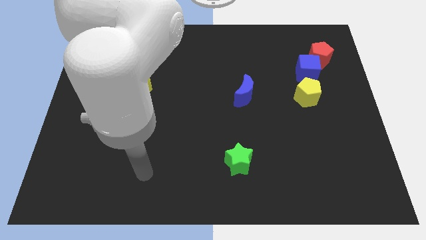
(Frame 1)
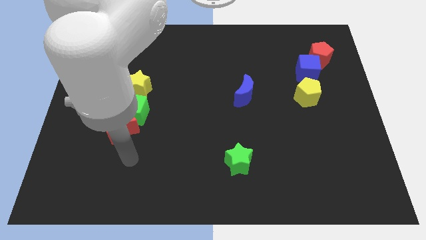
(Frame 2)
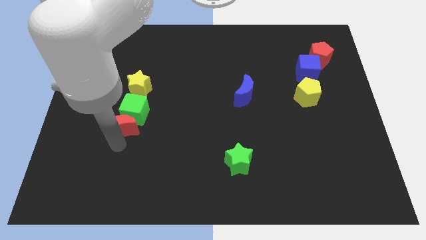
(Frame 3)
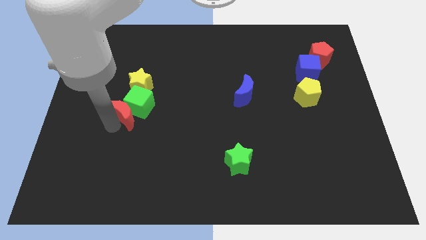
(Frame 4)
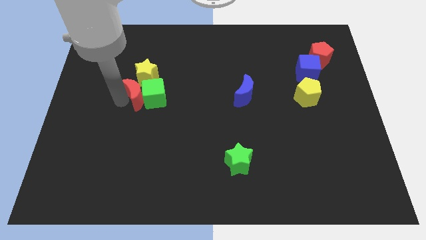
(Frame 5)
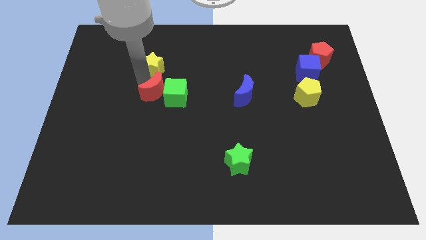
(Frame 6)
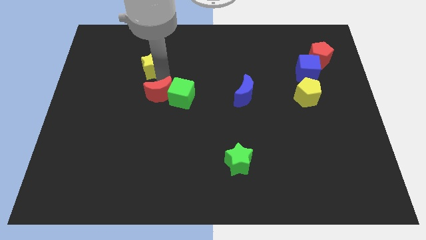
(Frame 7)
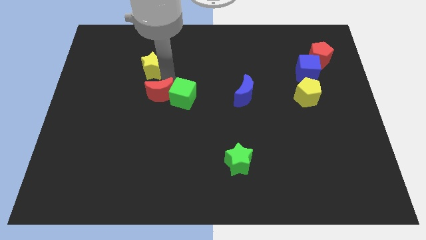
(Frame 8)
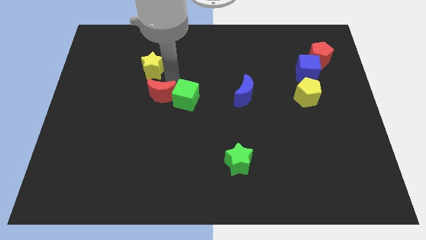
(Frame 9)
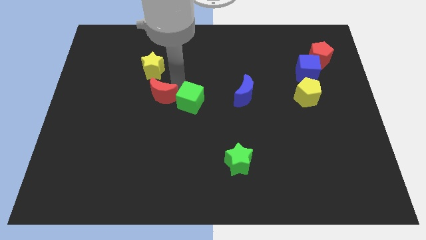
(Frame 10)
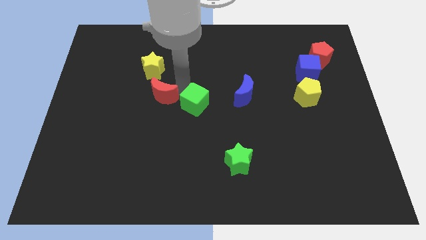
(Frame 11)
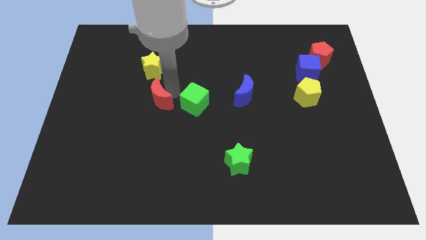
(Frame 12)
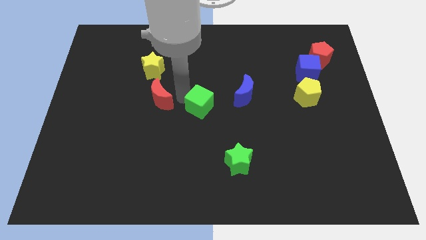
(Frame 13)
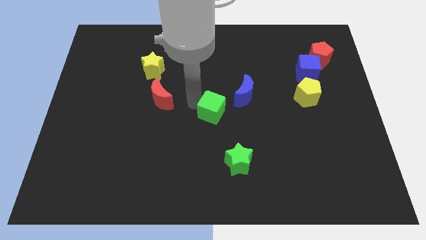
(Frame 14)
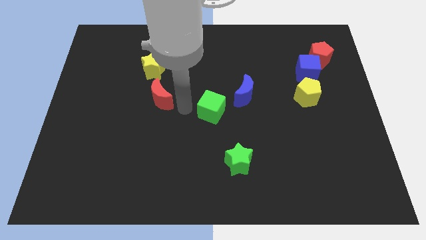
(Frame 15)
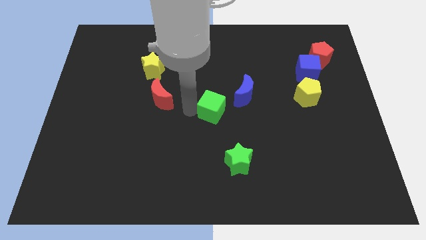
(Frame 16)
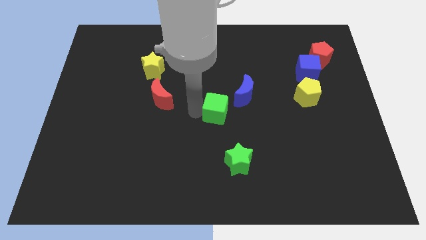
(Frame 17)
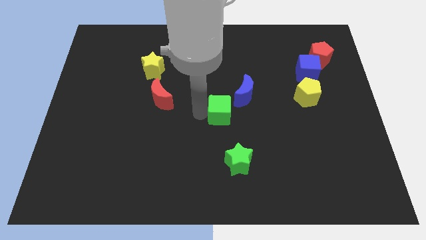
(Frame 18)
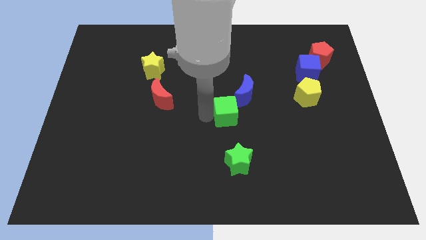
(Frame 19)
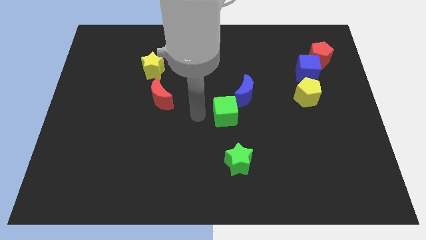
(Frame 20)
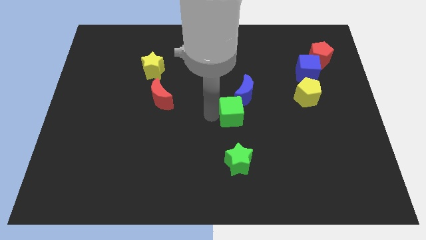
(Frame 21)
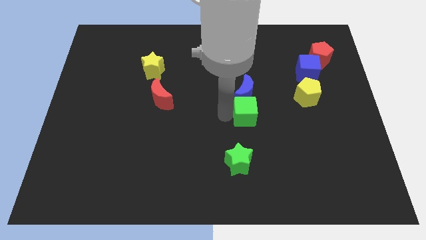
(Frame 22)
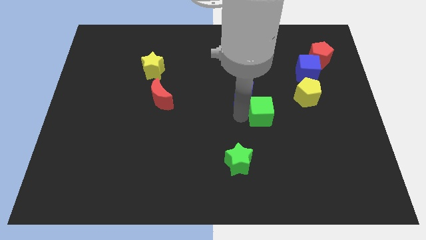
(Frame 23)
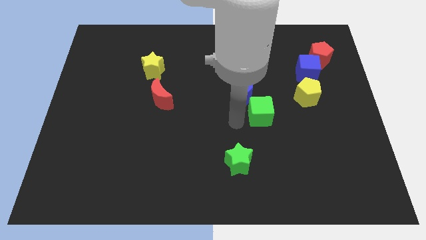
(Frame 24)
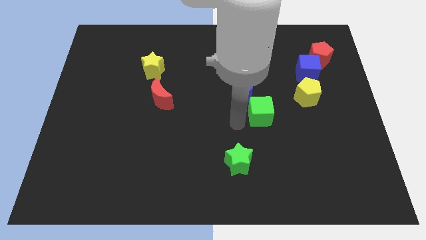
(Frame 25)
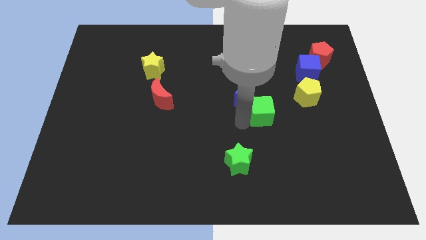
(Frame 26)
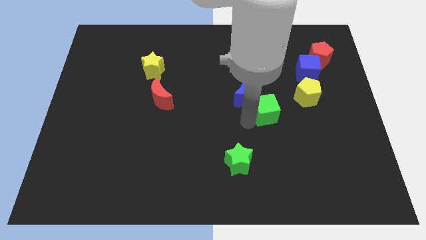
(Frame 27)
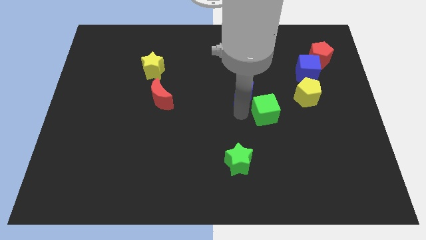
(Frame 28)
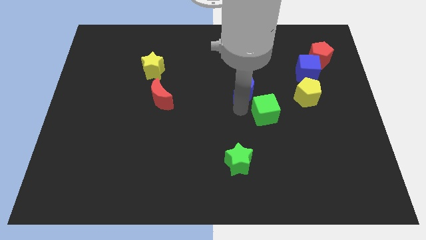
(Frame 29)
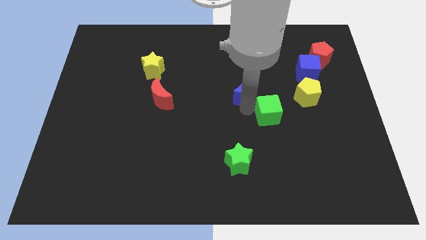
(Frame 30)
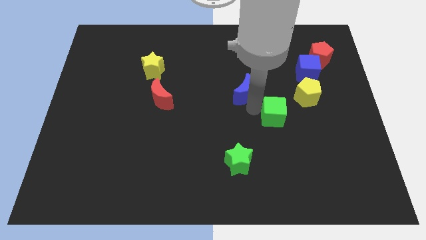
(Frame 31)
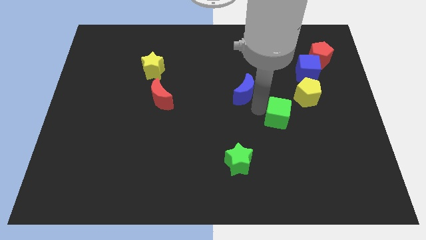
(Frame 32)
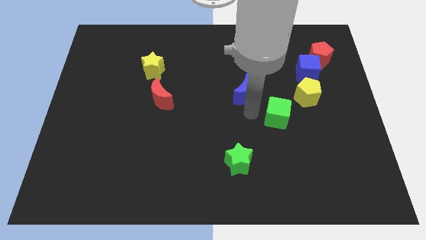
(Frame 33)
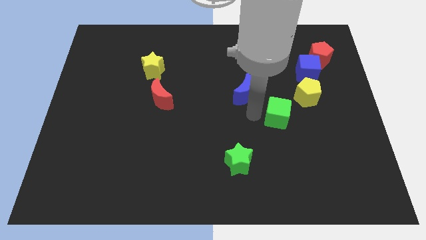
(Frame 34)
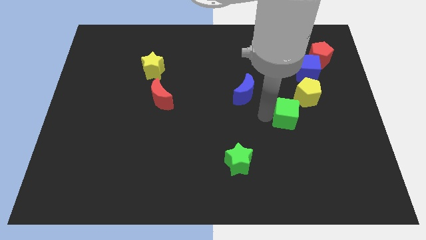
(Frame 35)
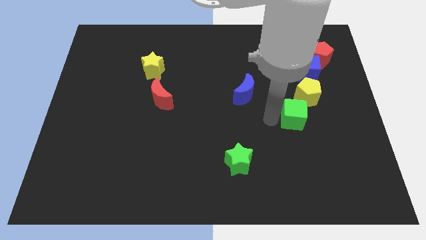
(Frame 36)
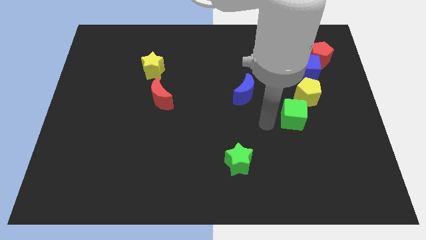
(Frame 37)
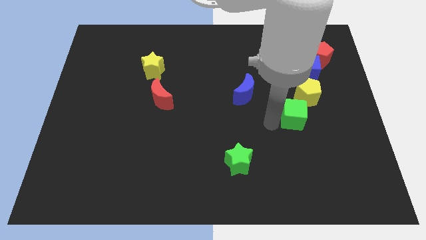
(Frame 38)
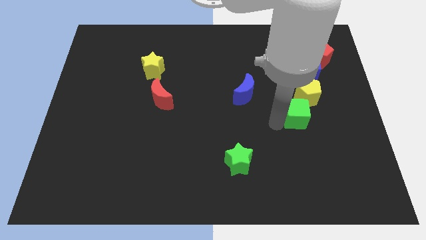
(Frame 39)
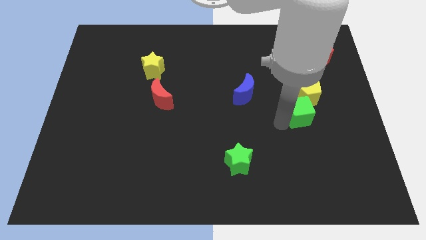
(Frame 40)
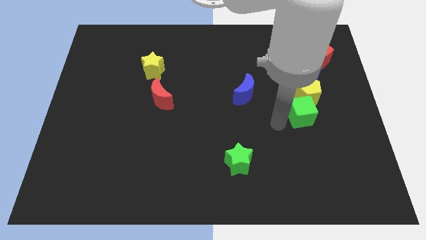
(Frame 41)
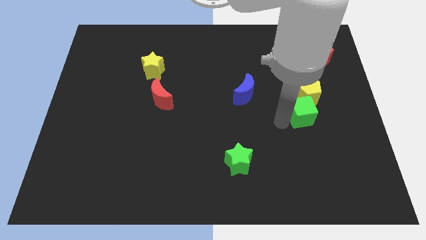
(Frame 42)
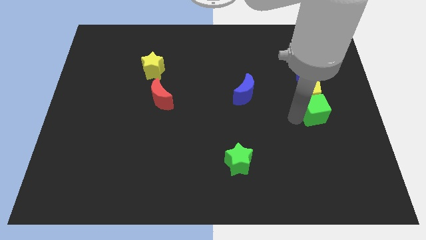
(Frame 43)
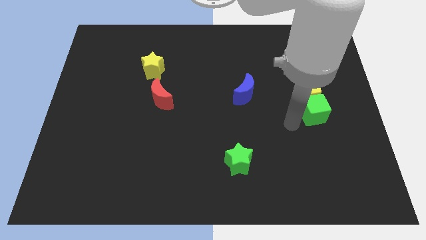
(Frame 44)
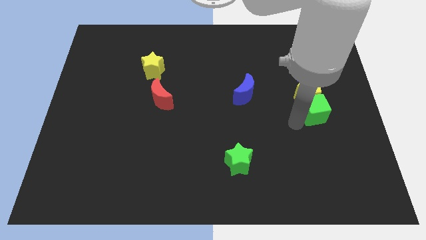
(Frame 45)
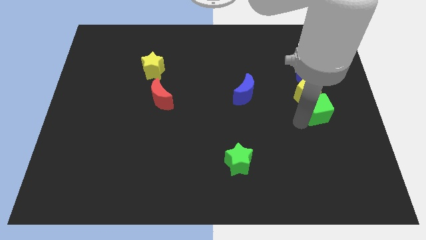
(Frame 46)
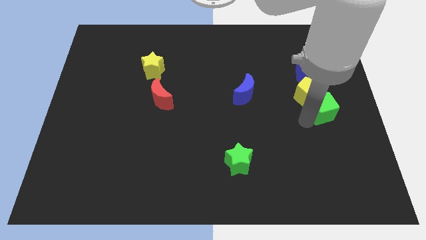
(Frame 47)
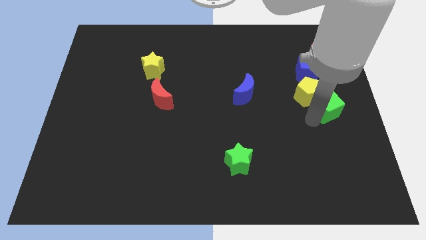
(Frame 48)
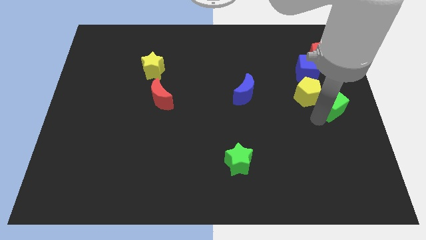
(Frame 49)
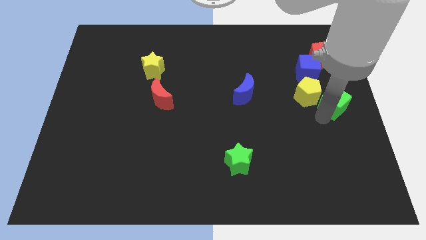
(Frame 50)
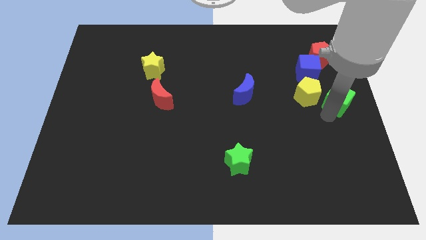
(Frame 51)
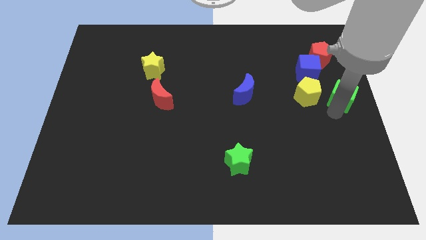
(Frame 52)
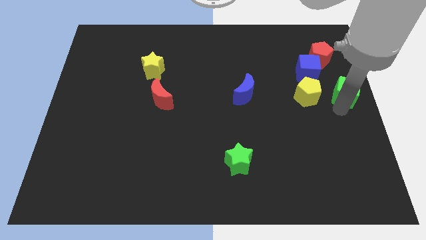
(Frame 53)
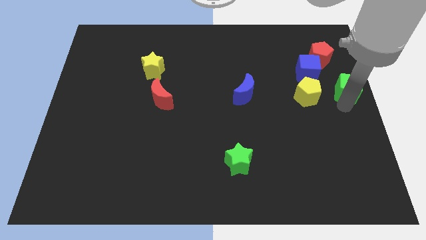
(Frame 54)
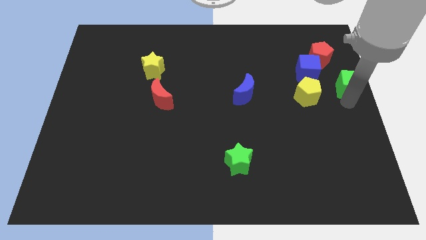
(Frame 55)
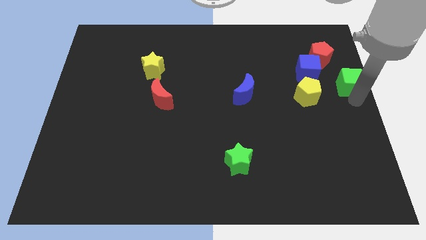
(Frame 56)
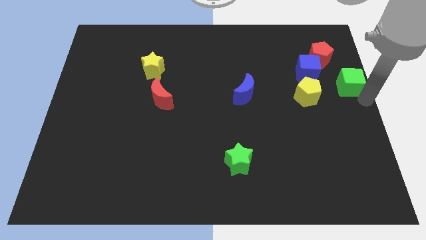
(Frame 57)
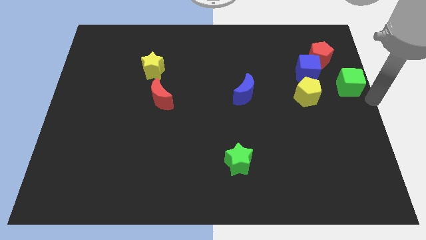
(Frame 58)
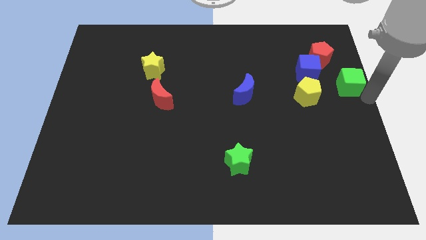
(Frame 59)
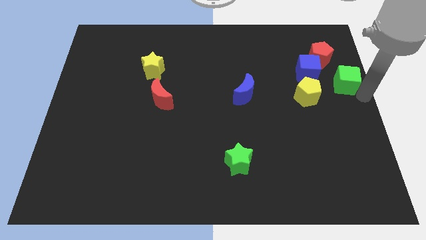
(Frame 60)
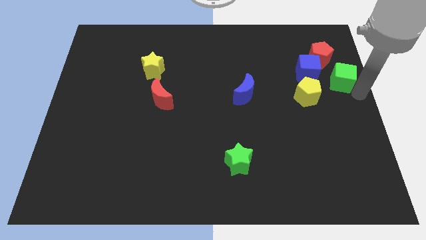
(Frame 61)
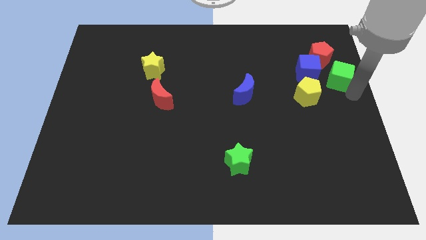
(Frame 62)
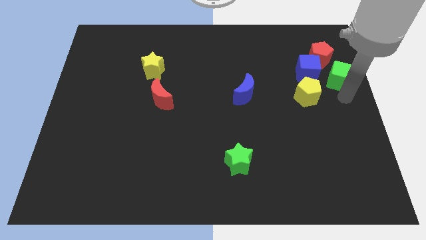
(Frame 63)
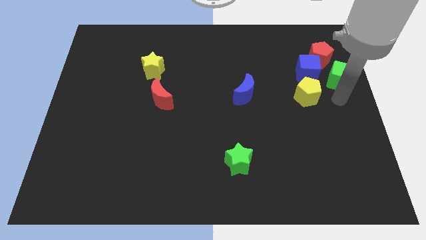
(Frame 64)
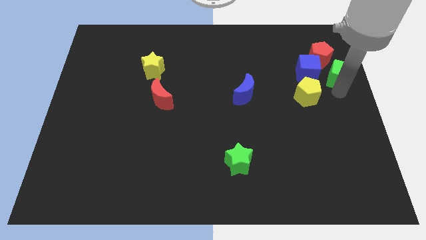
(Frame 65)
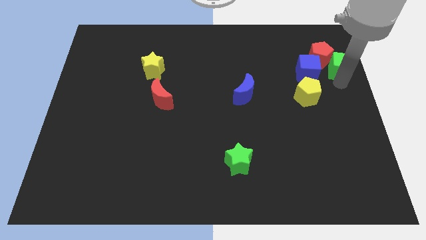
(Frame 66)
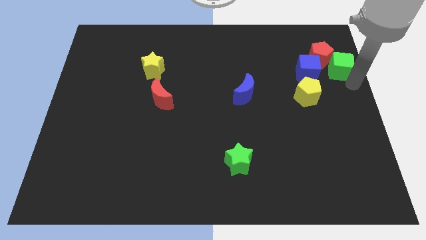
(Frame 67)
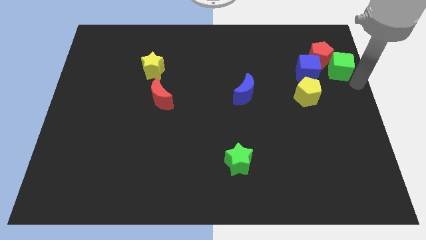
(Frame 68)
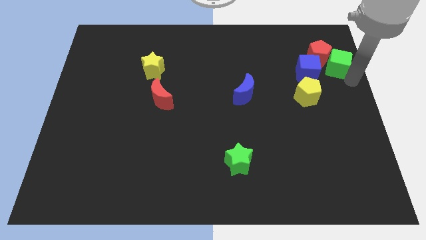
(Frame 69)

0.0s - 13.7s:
push the green cube to the top right of the blue cube

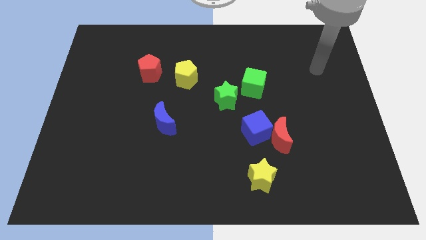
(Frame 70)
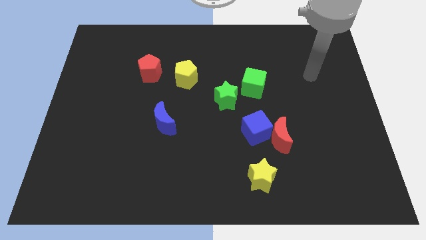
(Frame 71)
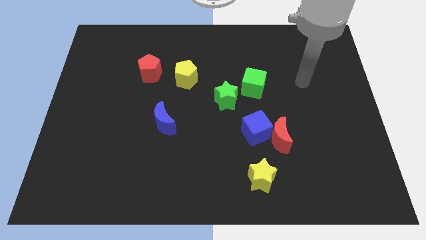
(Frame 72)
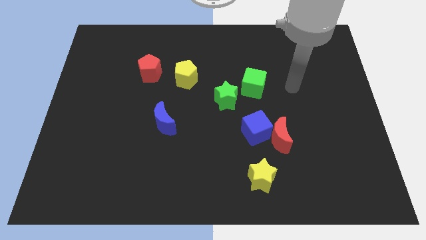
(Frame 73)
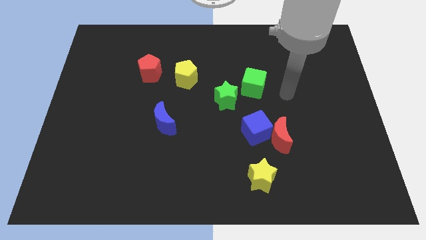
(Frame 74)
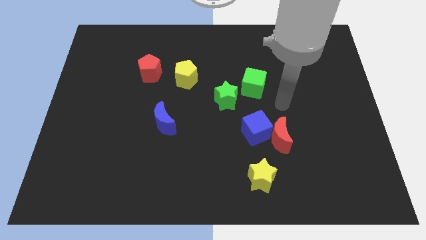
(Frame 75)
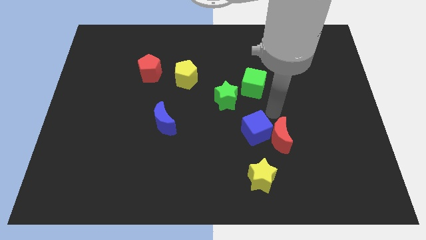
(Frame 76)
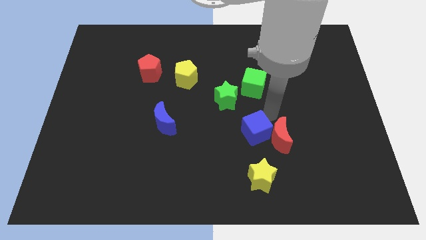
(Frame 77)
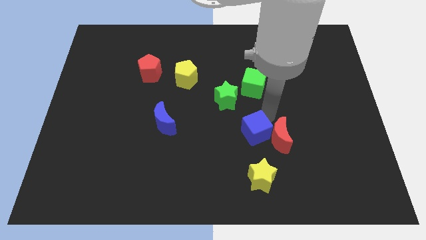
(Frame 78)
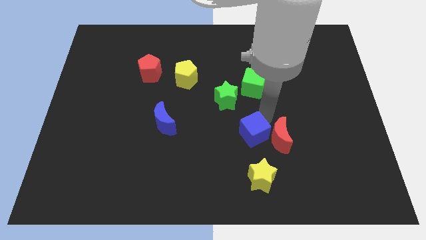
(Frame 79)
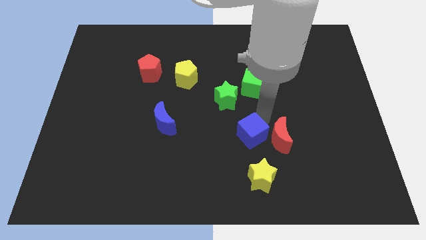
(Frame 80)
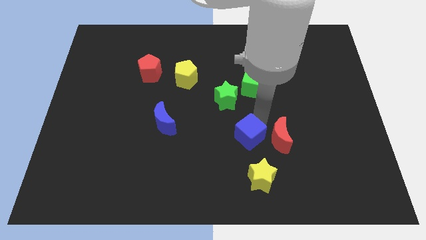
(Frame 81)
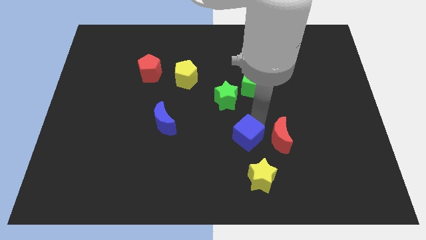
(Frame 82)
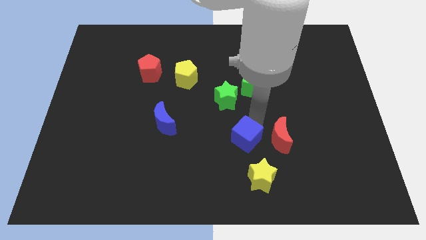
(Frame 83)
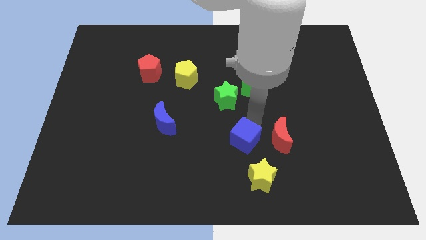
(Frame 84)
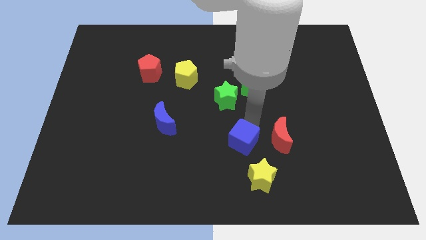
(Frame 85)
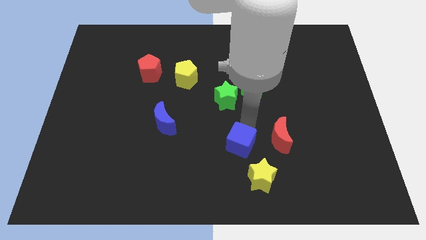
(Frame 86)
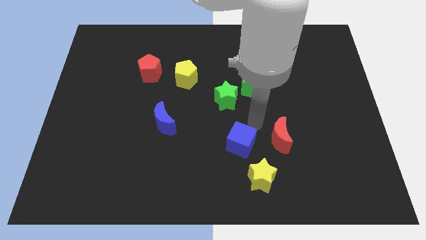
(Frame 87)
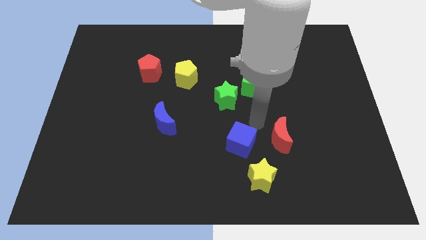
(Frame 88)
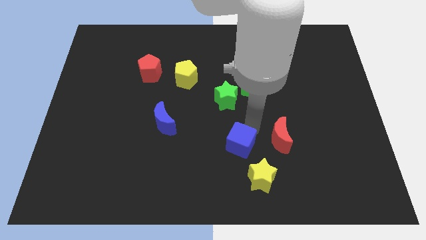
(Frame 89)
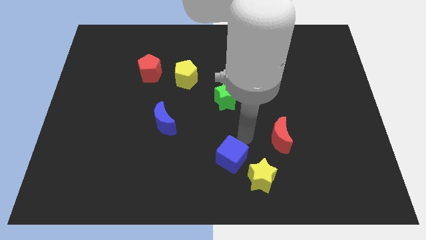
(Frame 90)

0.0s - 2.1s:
slide the blue cube left of the yellow star
